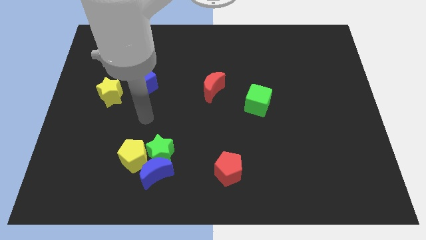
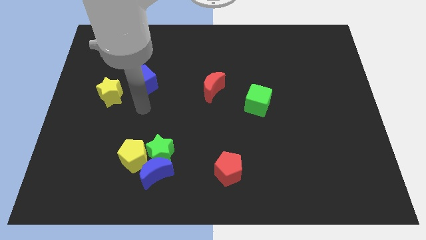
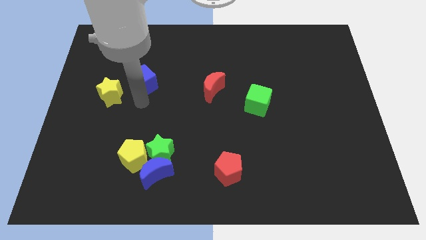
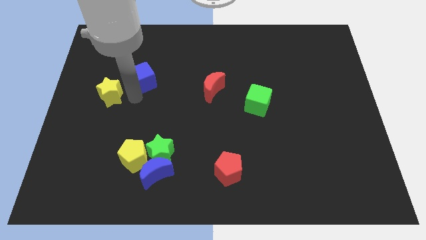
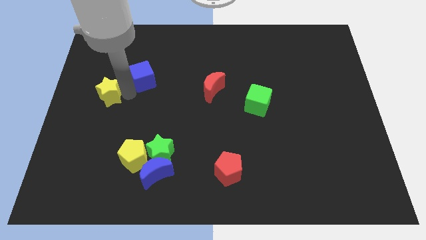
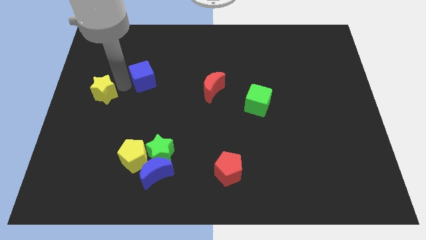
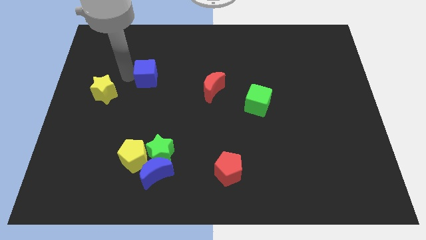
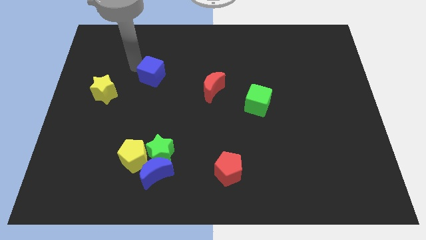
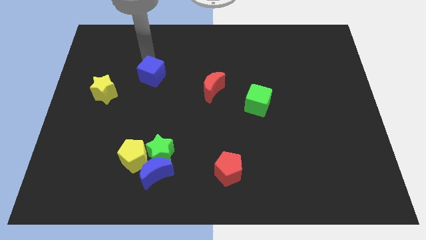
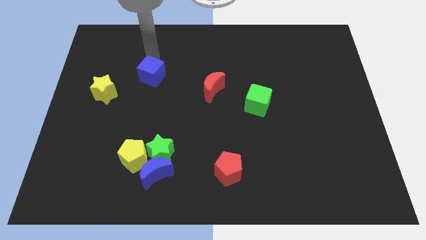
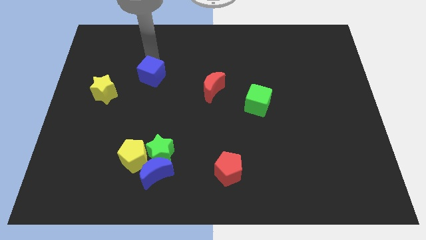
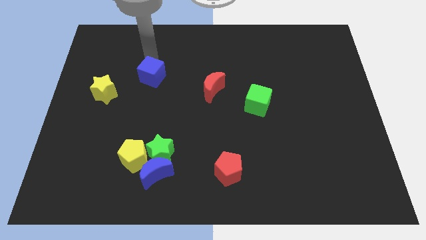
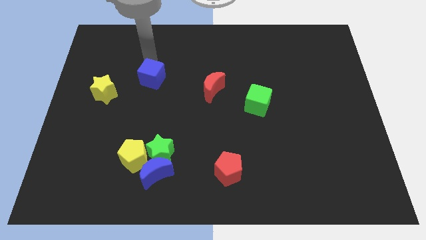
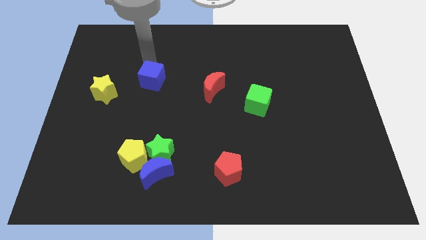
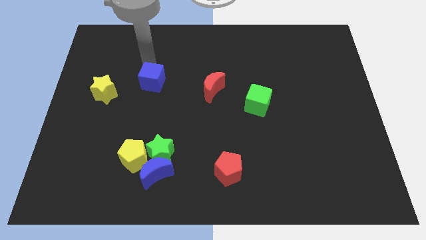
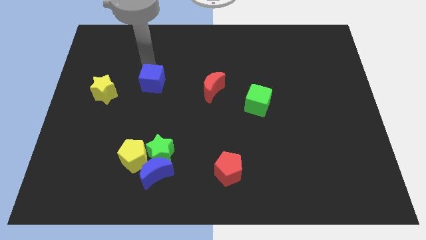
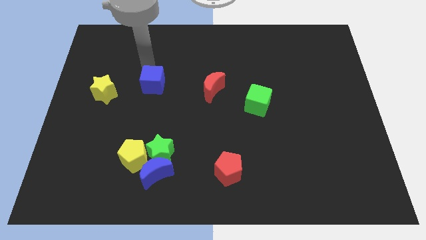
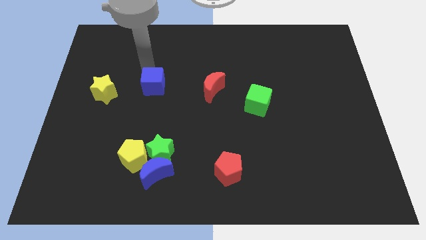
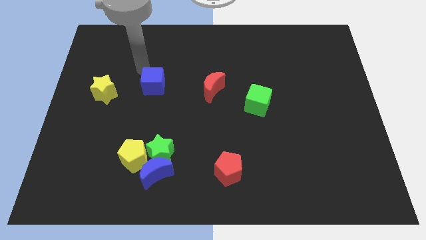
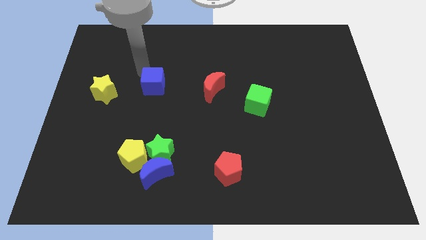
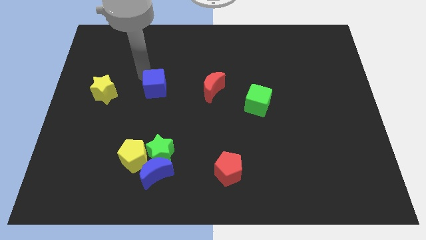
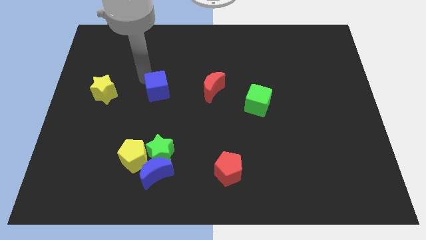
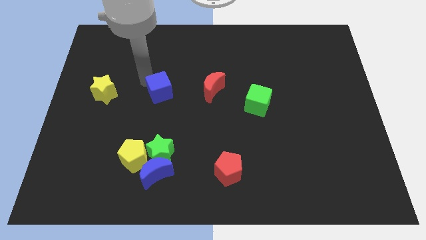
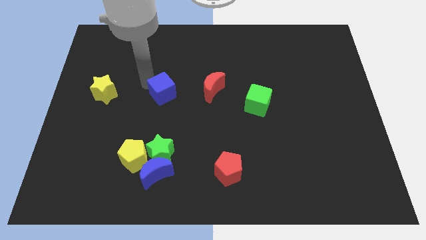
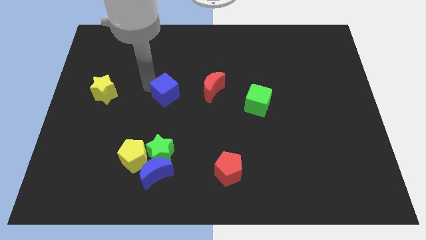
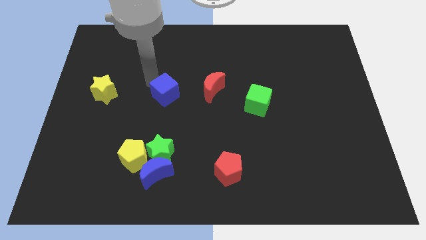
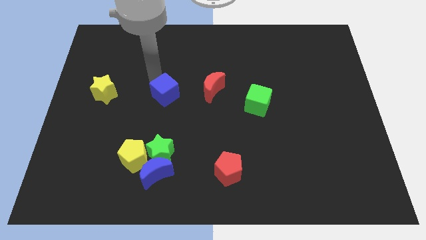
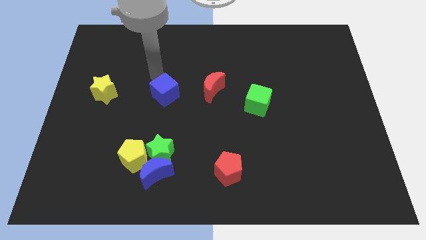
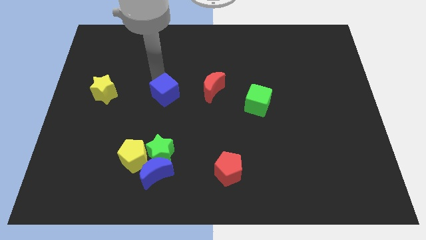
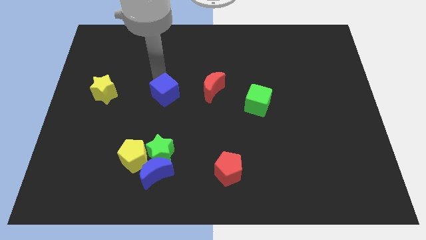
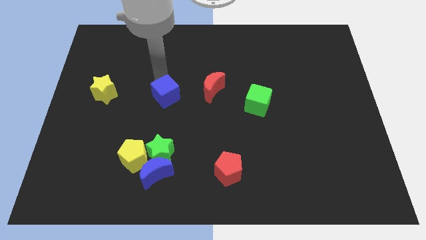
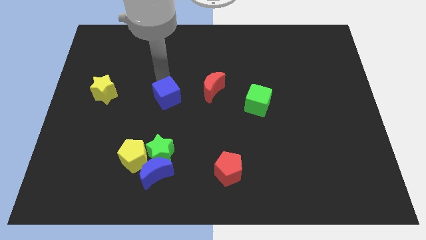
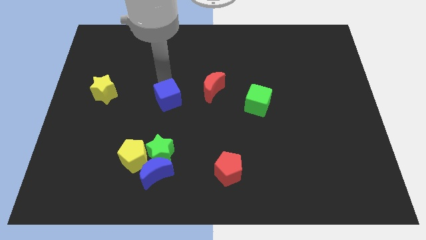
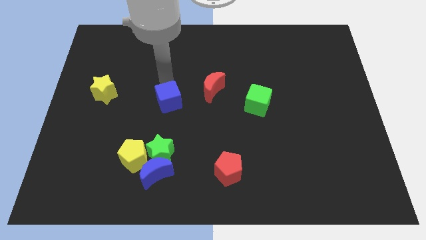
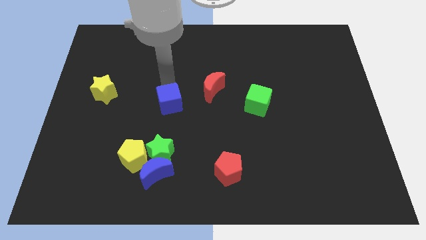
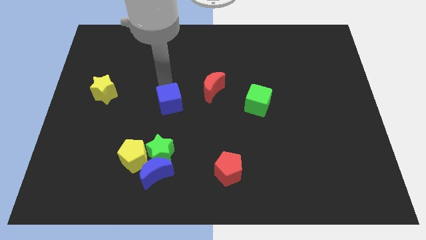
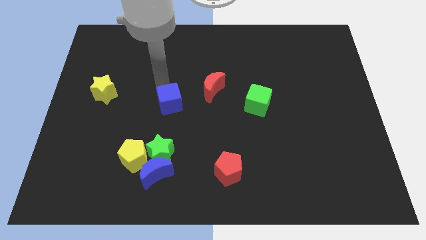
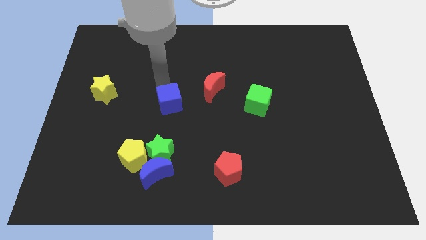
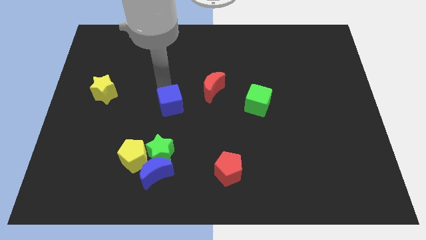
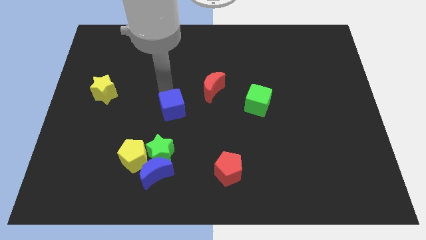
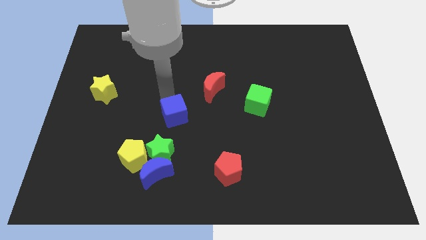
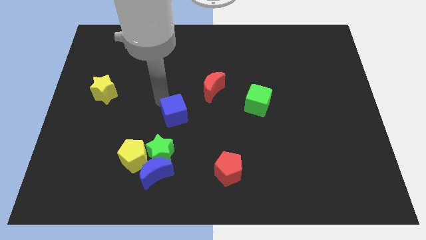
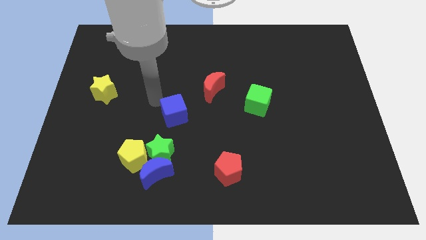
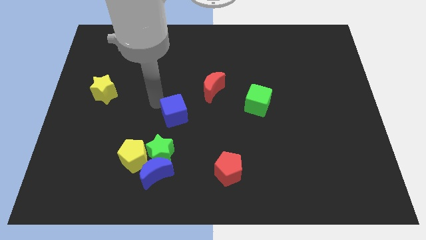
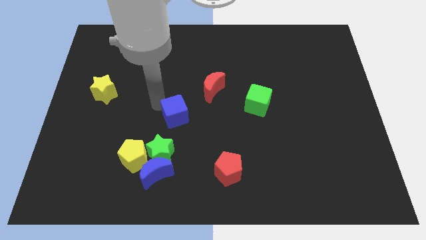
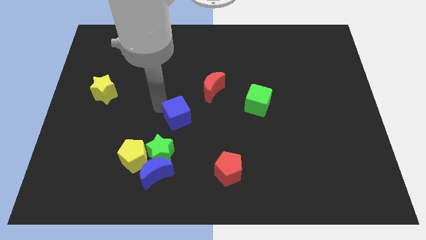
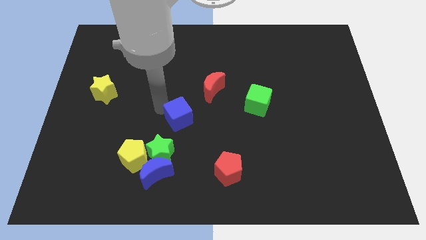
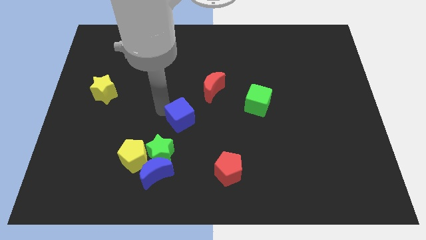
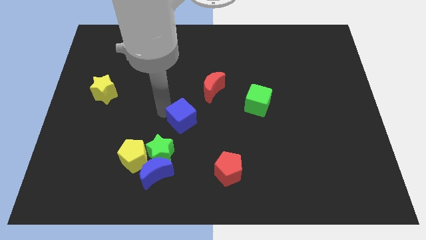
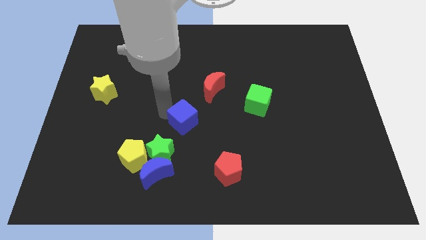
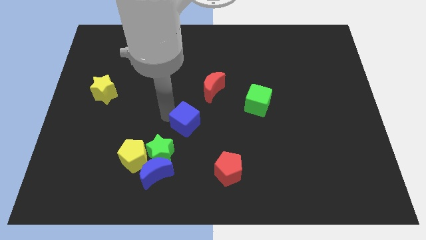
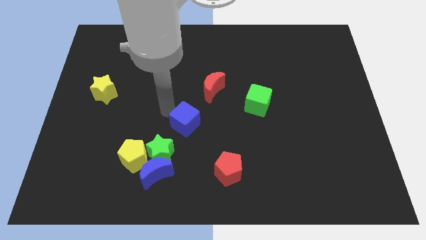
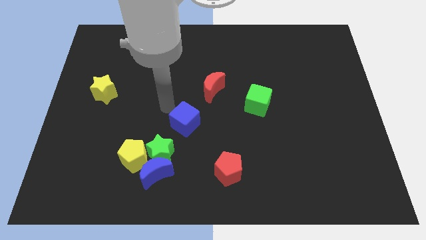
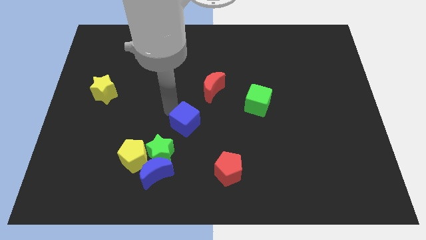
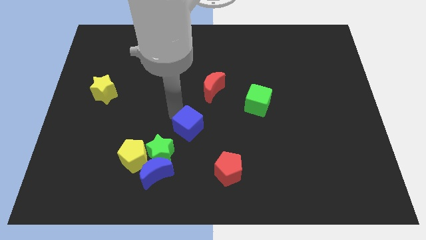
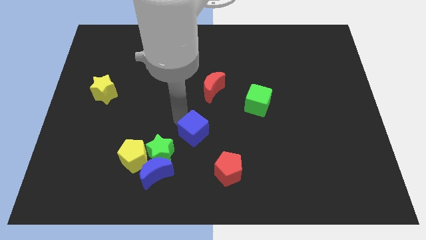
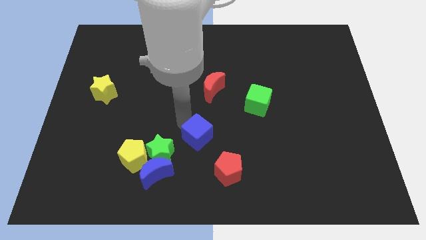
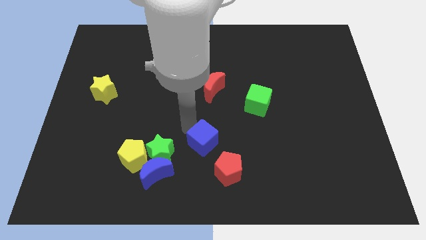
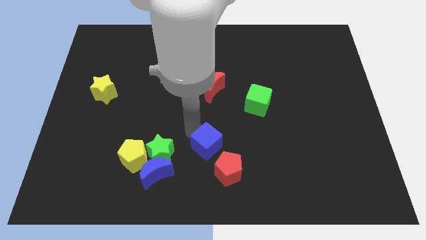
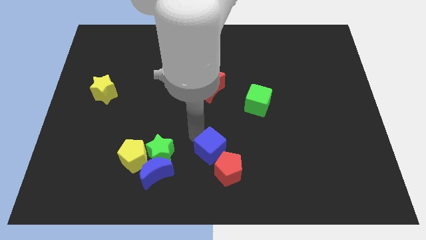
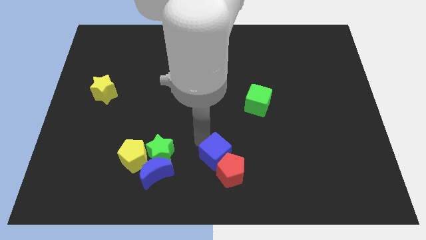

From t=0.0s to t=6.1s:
push the blue cube towards the red pentagon

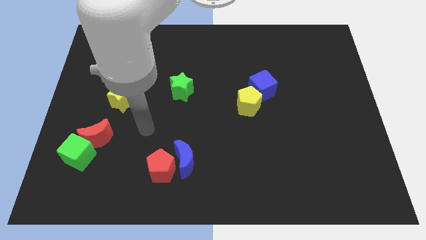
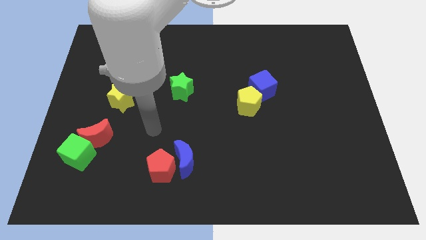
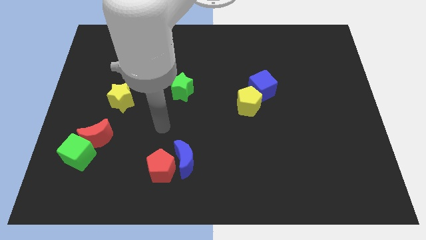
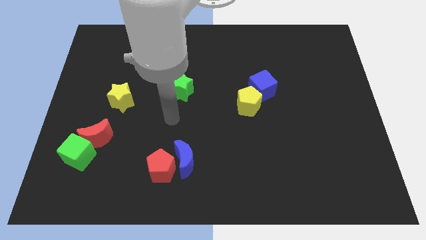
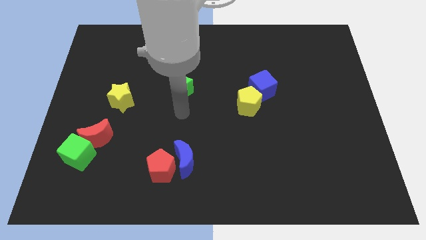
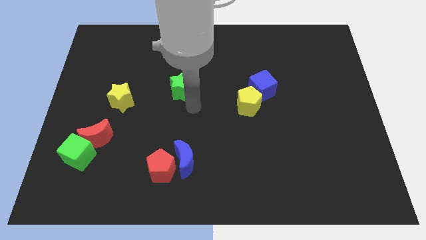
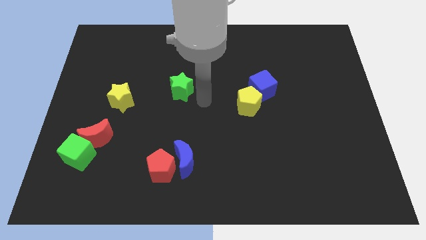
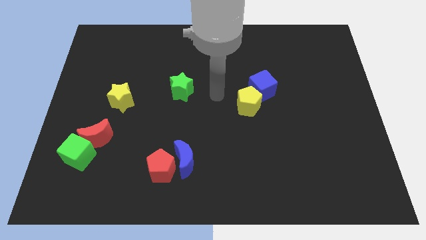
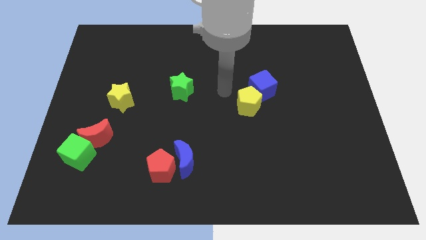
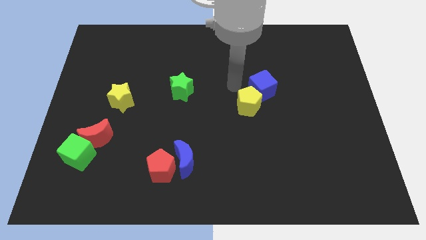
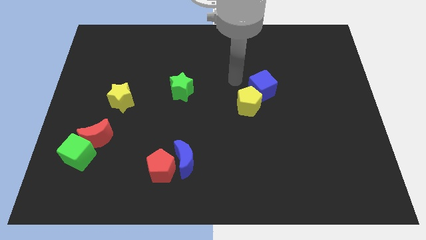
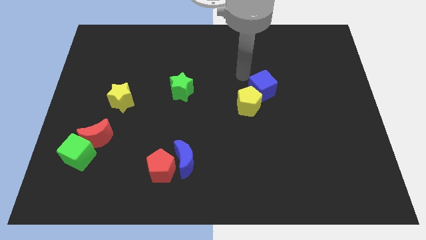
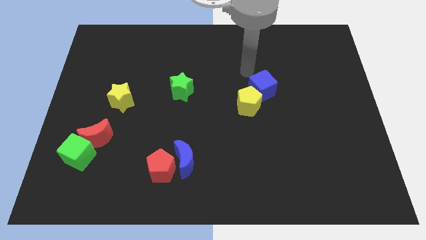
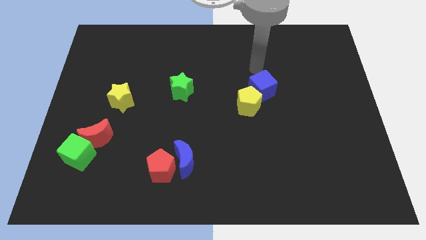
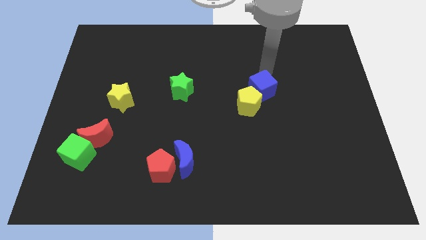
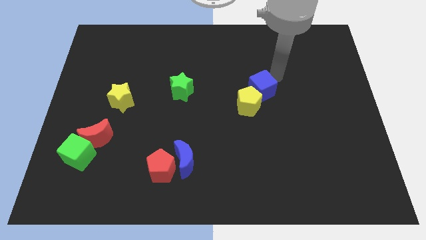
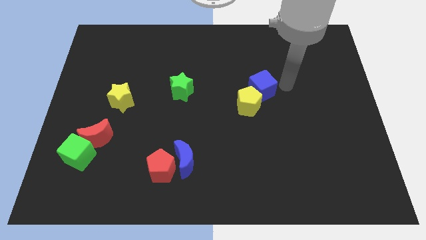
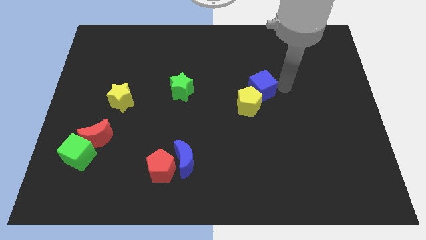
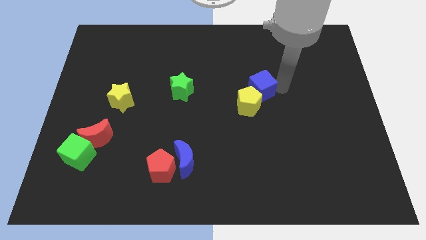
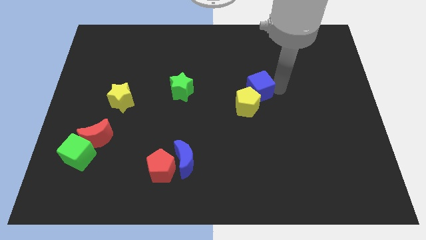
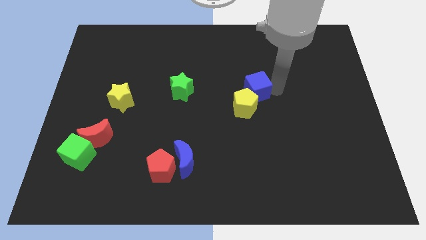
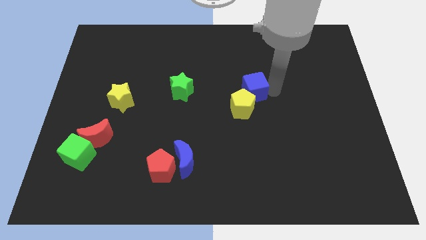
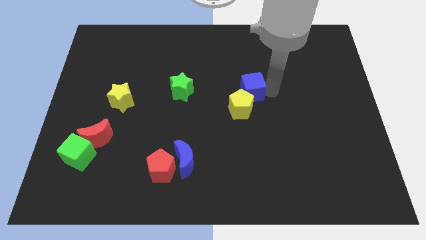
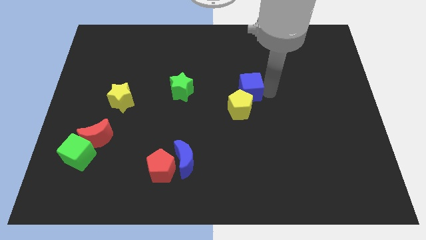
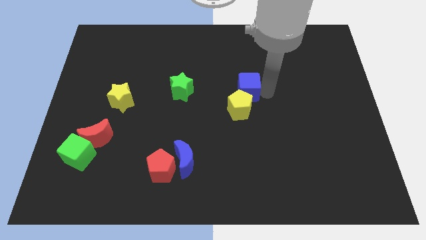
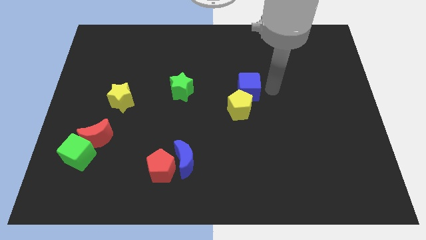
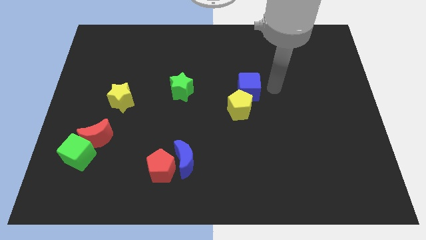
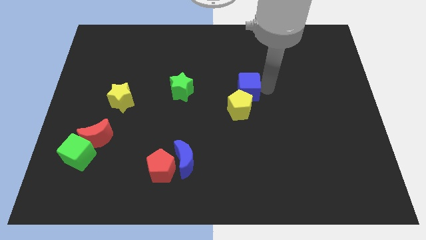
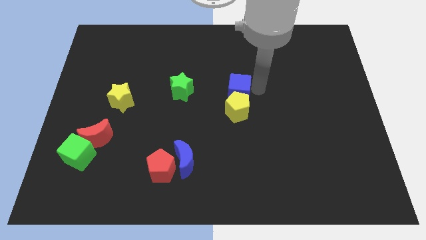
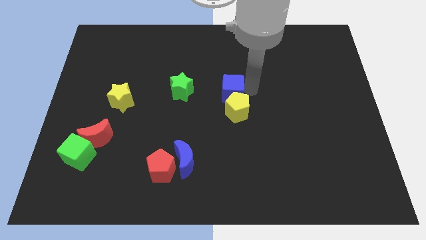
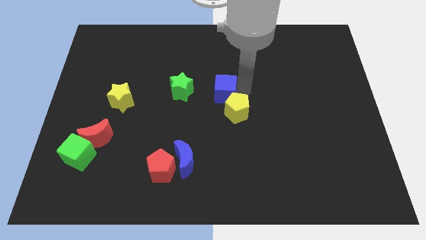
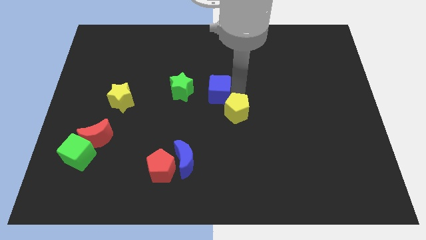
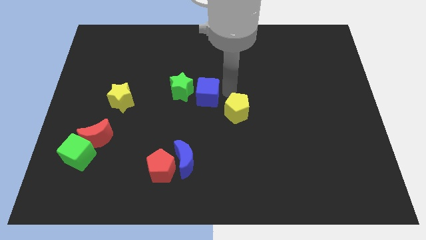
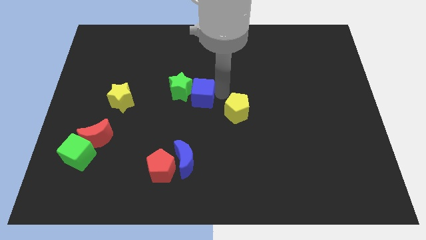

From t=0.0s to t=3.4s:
put the blue cube towards the green star
